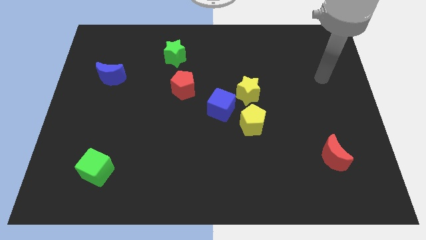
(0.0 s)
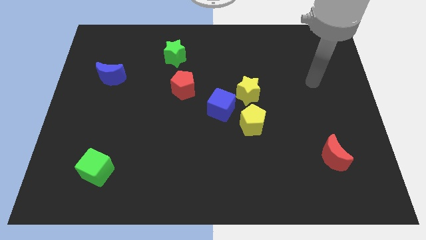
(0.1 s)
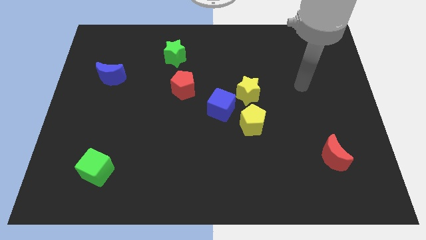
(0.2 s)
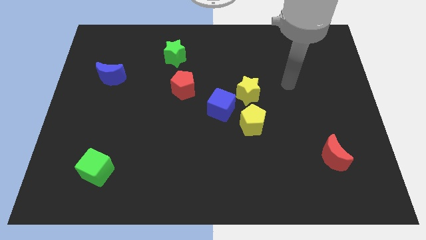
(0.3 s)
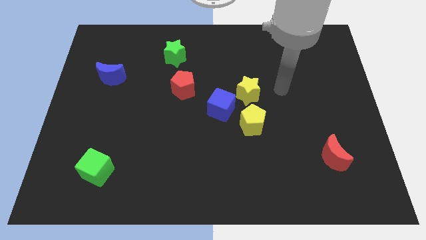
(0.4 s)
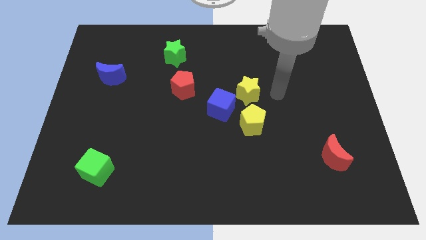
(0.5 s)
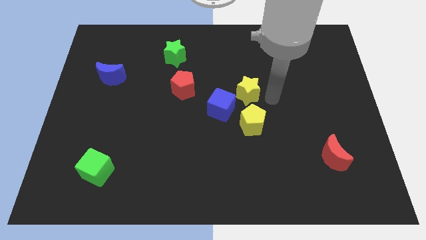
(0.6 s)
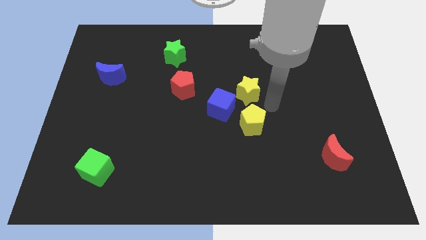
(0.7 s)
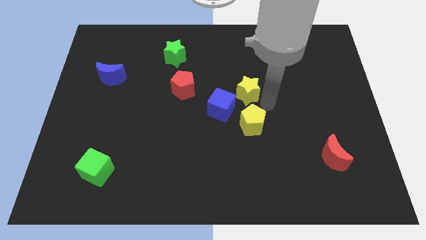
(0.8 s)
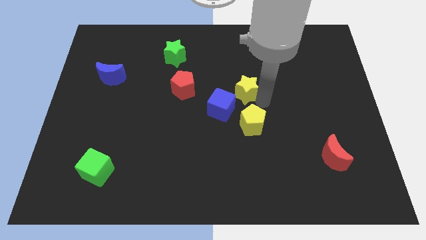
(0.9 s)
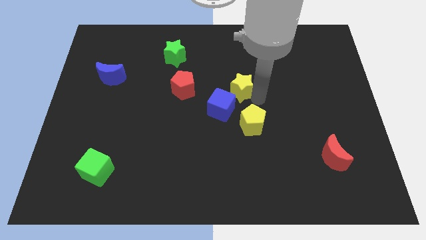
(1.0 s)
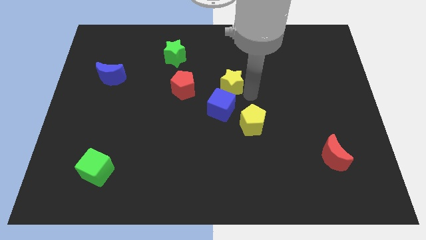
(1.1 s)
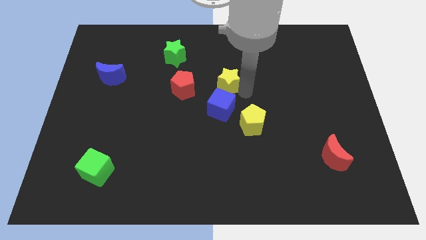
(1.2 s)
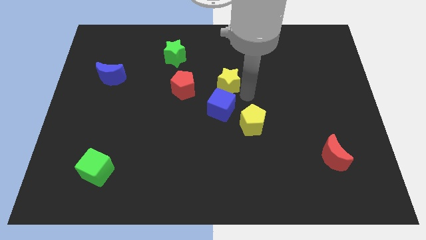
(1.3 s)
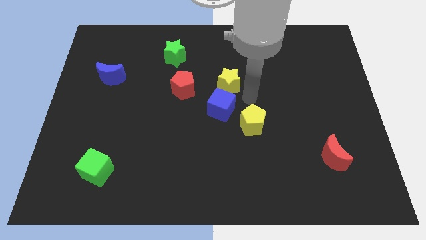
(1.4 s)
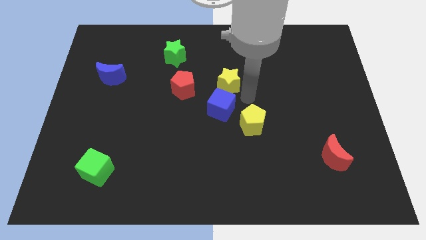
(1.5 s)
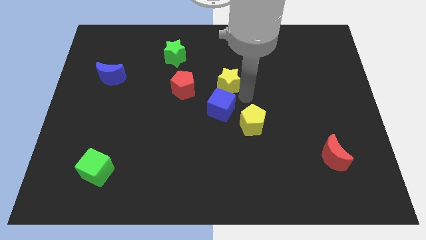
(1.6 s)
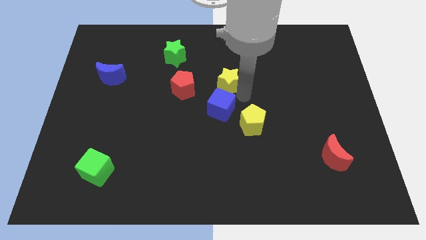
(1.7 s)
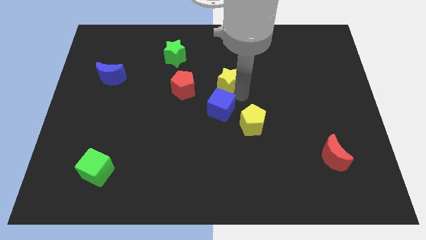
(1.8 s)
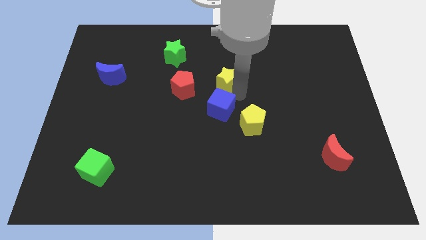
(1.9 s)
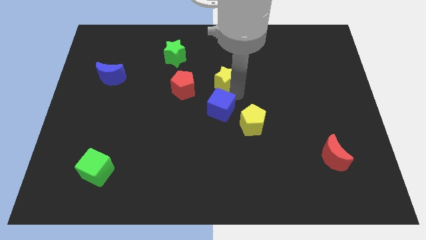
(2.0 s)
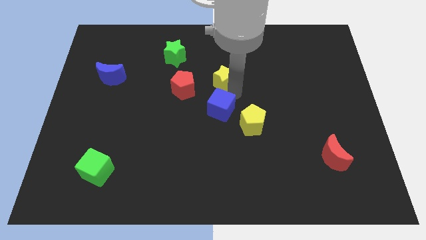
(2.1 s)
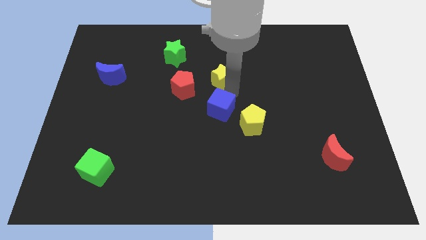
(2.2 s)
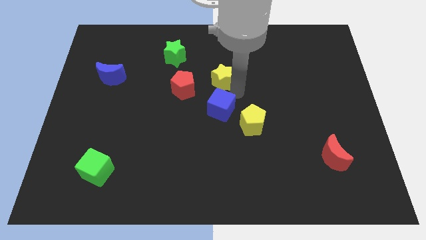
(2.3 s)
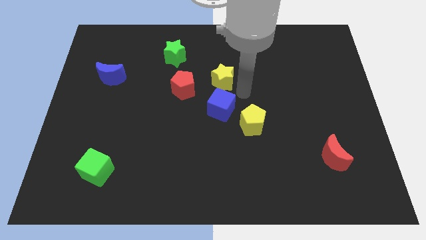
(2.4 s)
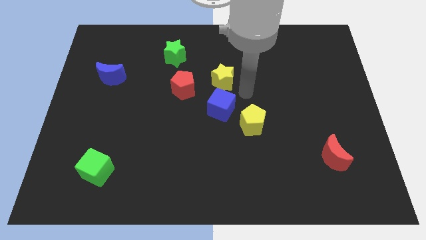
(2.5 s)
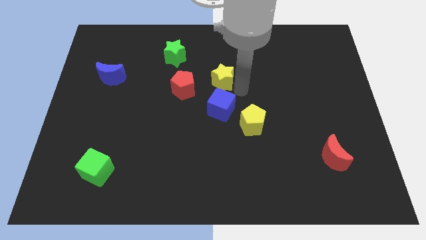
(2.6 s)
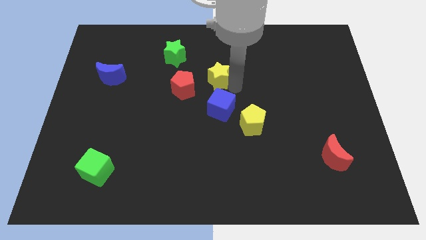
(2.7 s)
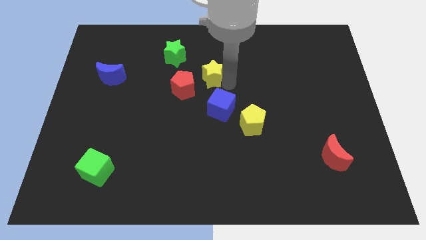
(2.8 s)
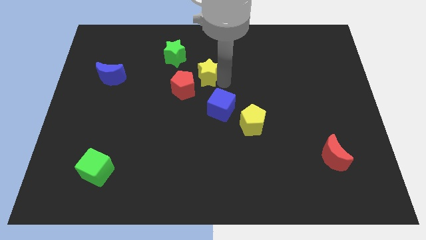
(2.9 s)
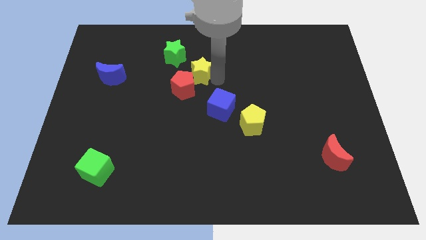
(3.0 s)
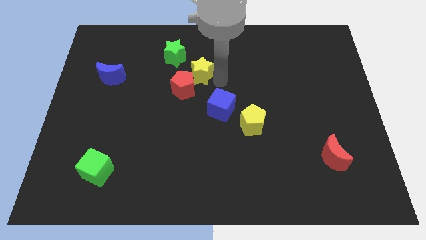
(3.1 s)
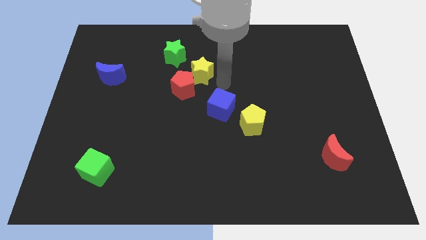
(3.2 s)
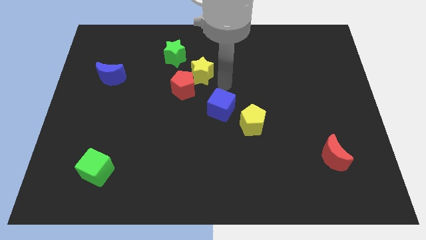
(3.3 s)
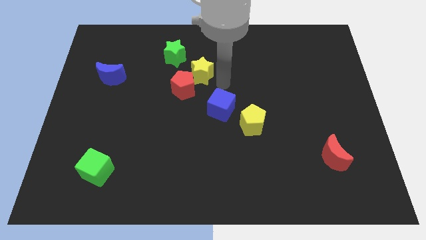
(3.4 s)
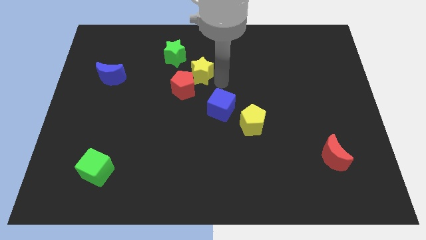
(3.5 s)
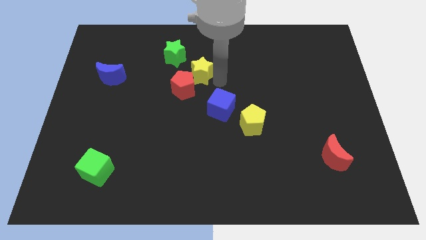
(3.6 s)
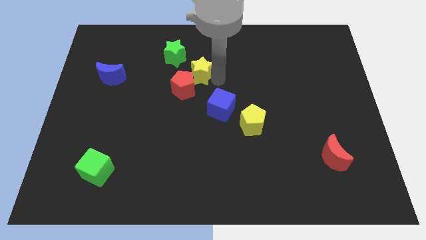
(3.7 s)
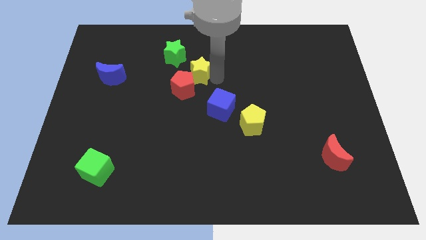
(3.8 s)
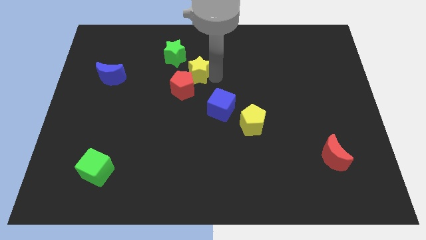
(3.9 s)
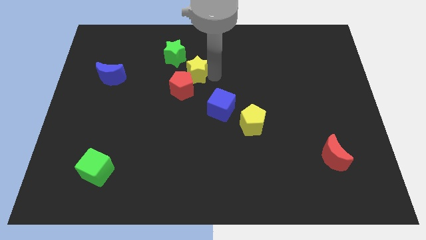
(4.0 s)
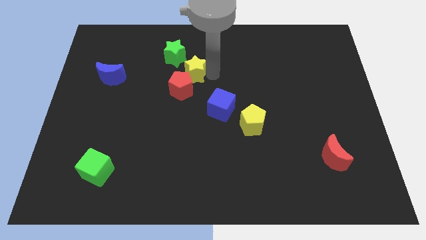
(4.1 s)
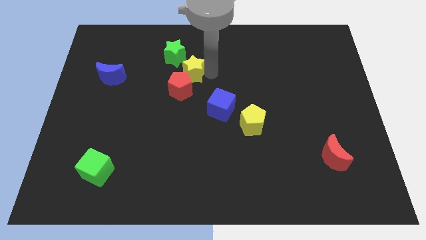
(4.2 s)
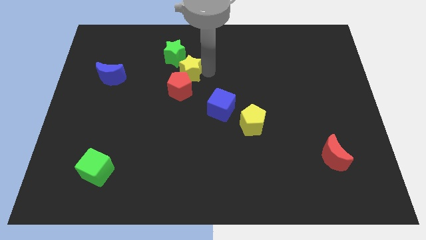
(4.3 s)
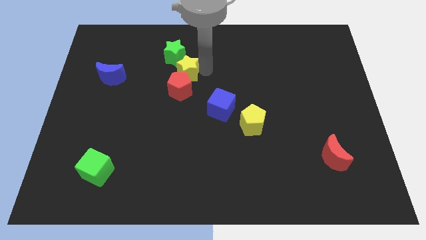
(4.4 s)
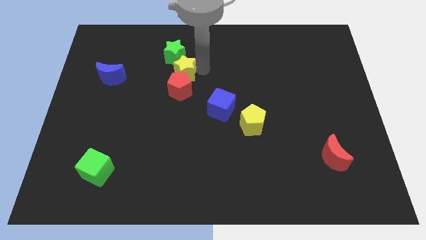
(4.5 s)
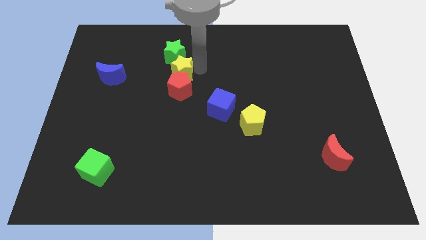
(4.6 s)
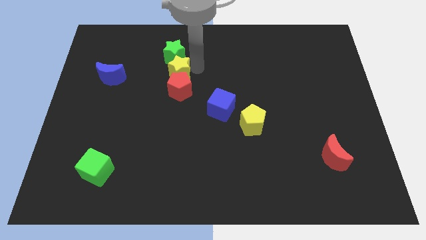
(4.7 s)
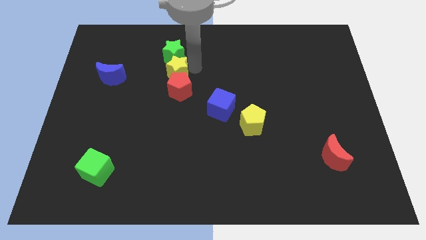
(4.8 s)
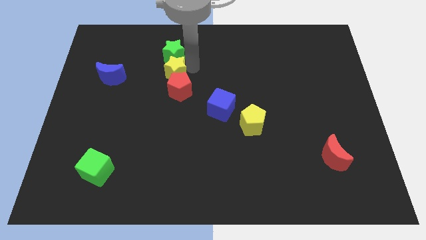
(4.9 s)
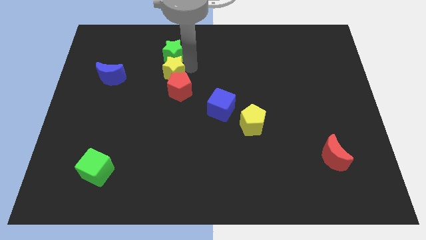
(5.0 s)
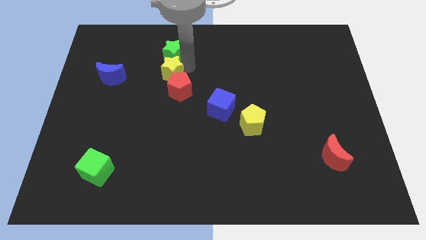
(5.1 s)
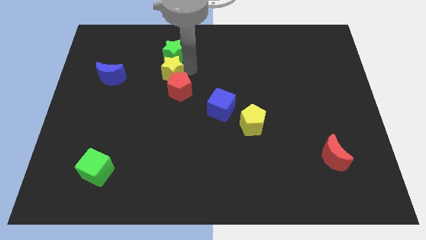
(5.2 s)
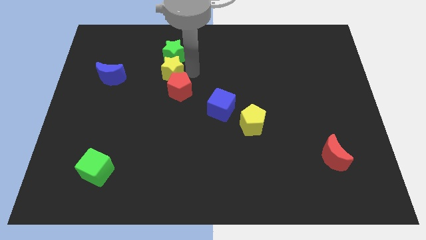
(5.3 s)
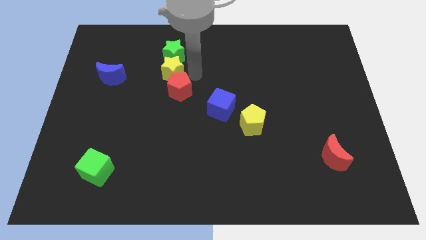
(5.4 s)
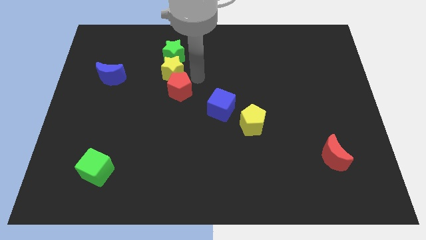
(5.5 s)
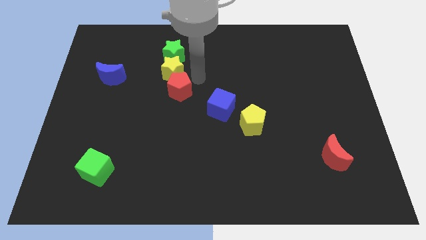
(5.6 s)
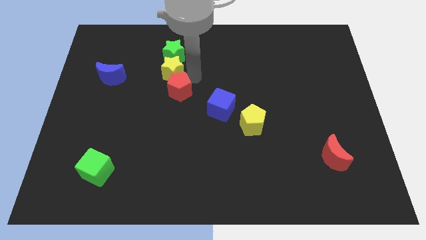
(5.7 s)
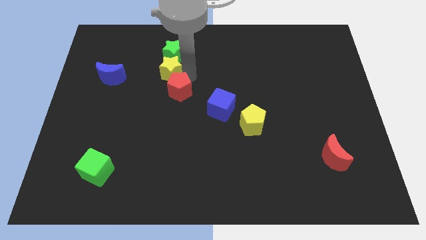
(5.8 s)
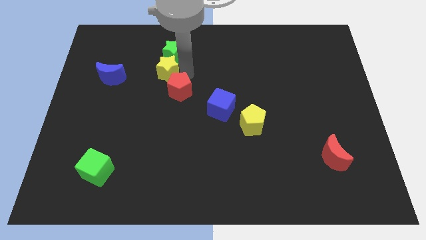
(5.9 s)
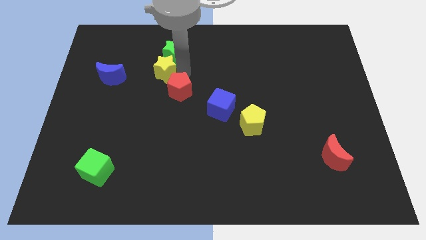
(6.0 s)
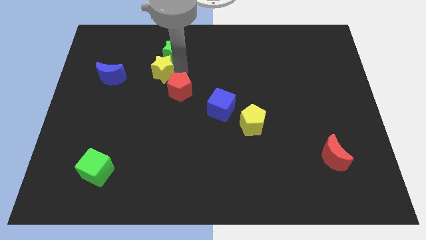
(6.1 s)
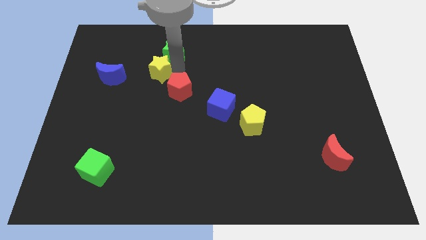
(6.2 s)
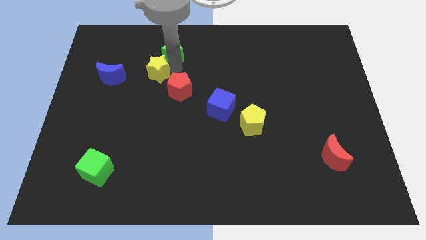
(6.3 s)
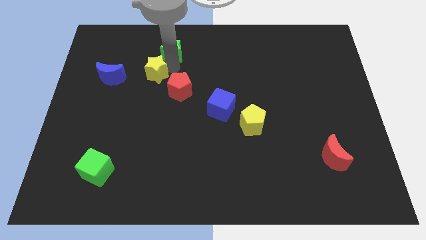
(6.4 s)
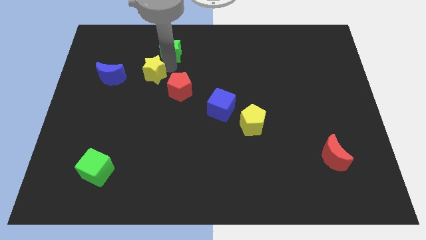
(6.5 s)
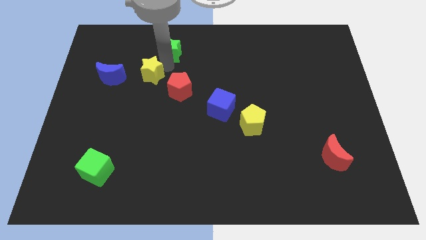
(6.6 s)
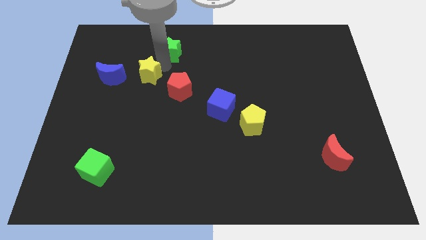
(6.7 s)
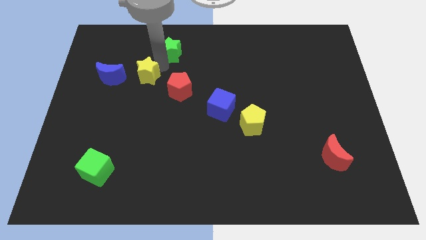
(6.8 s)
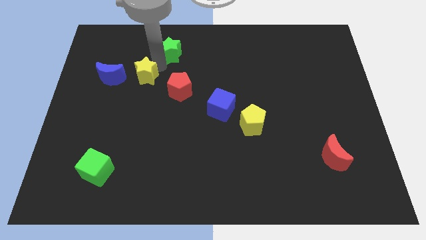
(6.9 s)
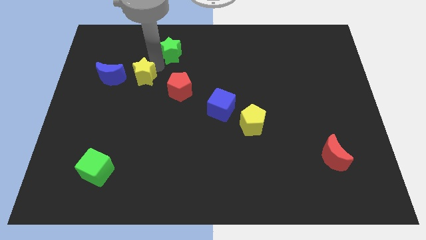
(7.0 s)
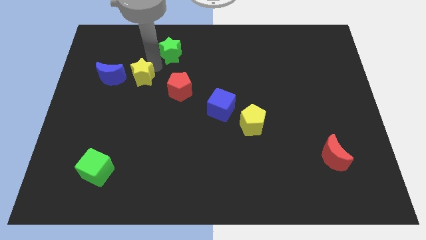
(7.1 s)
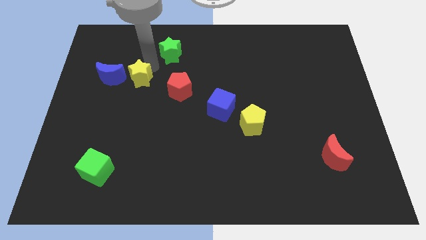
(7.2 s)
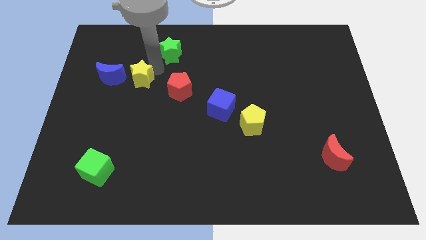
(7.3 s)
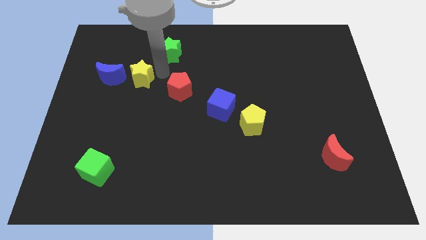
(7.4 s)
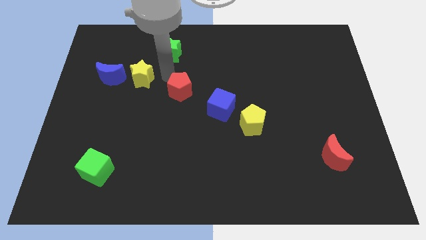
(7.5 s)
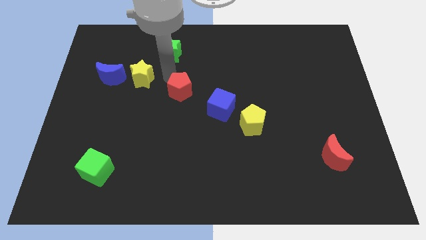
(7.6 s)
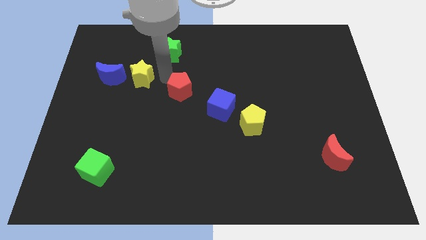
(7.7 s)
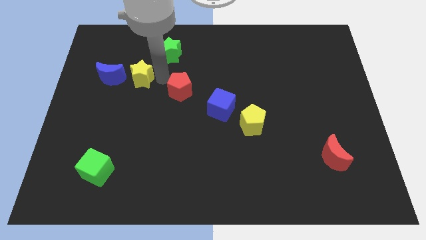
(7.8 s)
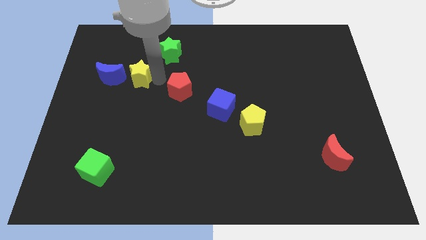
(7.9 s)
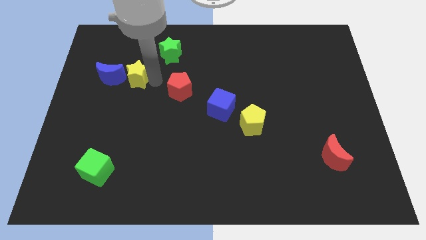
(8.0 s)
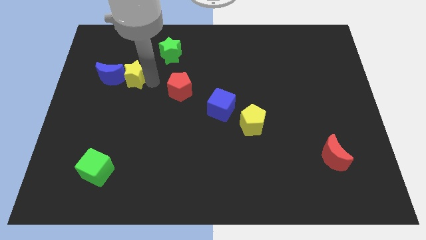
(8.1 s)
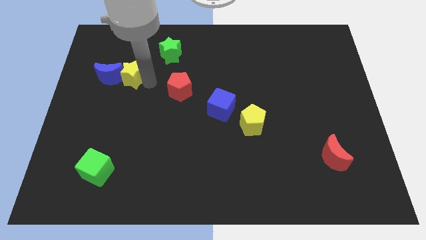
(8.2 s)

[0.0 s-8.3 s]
put the yellow star towards the blue moon
